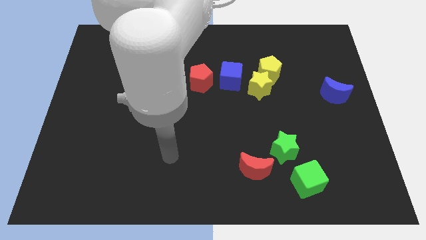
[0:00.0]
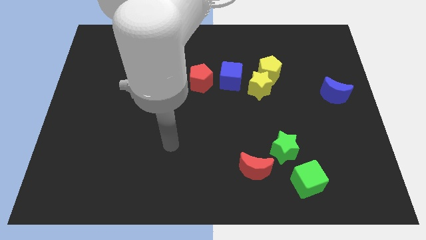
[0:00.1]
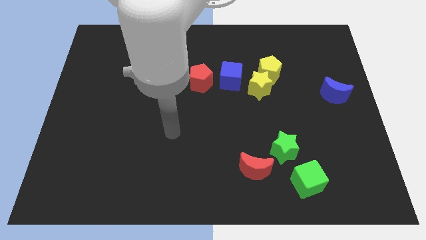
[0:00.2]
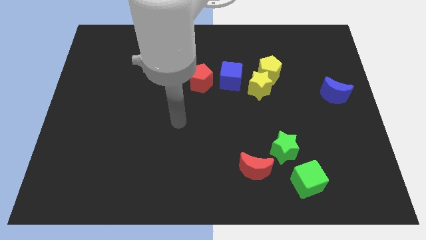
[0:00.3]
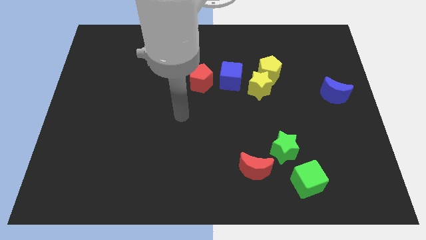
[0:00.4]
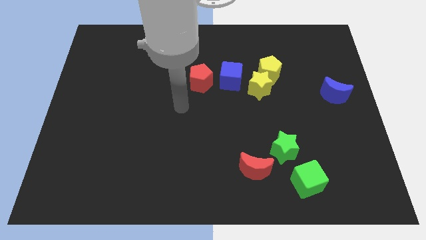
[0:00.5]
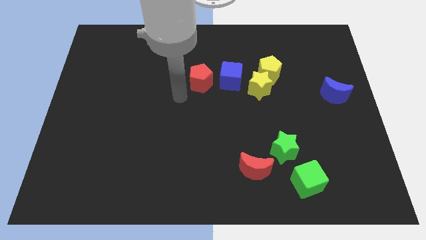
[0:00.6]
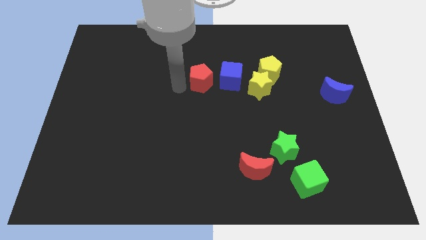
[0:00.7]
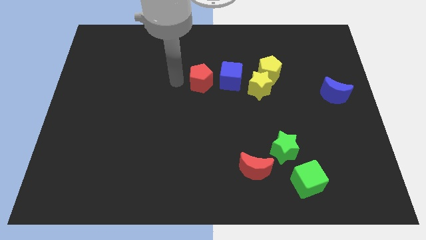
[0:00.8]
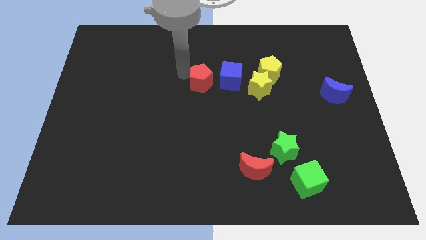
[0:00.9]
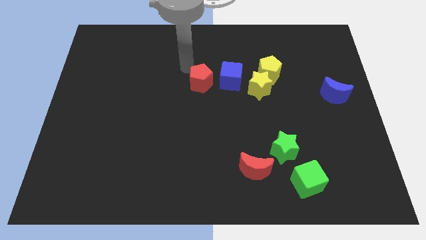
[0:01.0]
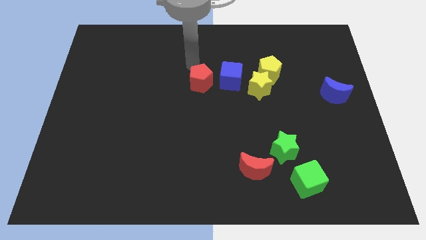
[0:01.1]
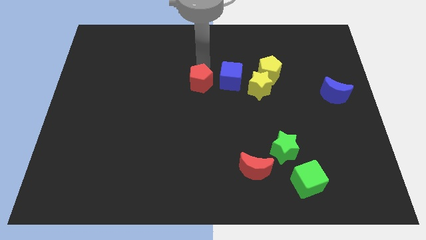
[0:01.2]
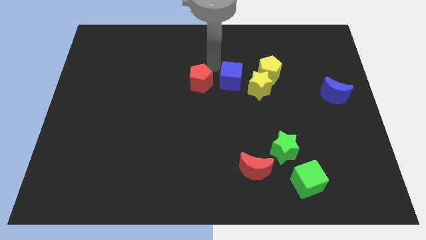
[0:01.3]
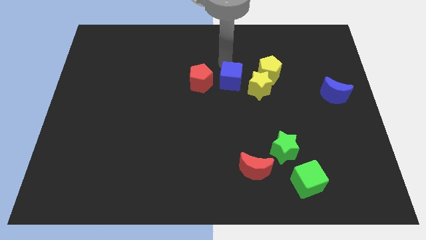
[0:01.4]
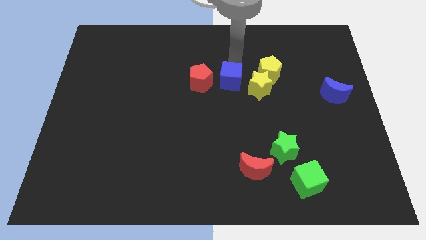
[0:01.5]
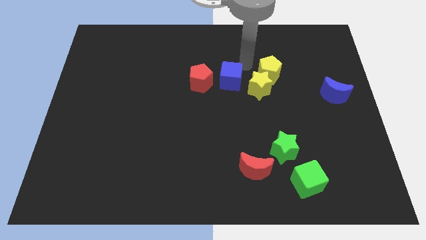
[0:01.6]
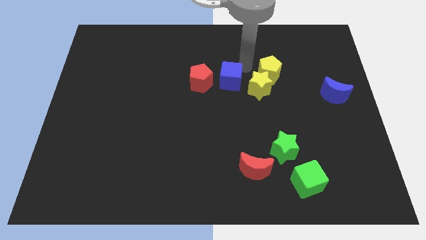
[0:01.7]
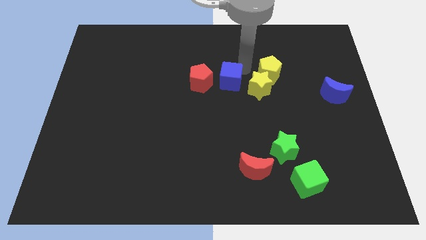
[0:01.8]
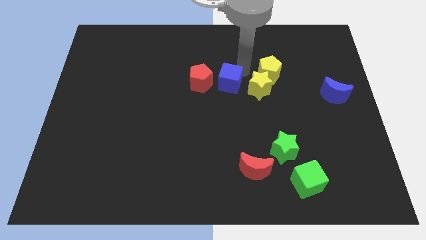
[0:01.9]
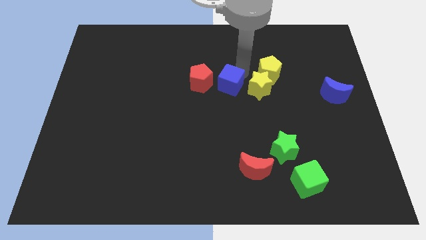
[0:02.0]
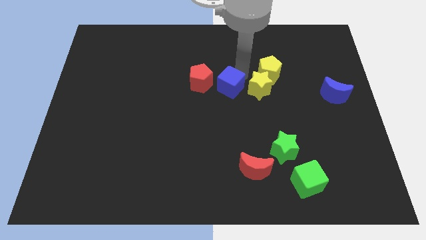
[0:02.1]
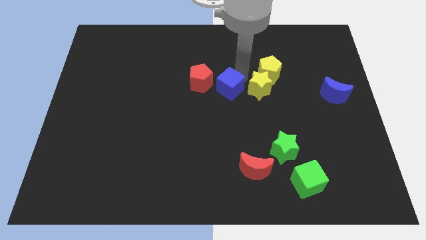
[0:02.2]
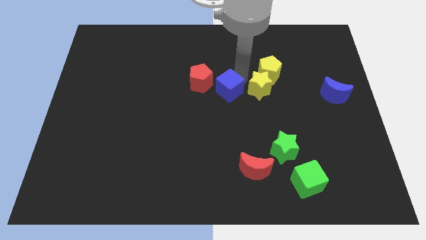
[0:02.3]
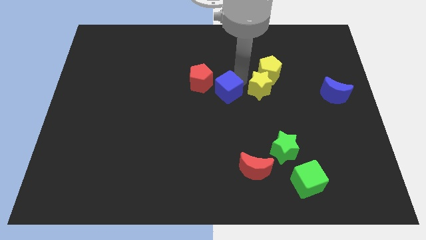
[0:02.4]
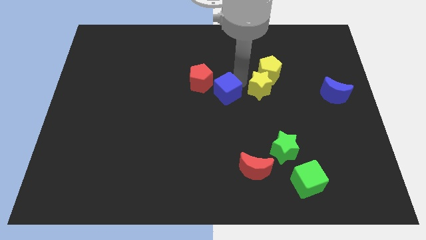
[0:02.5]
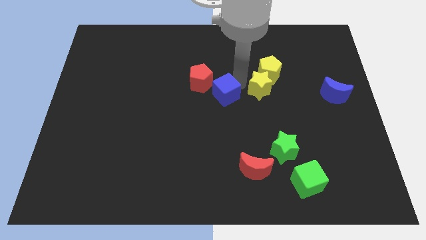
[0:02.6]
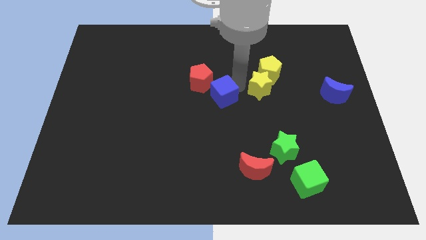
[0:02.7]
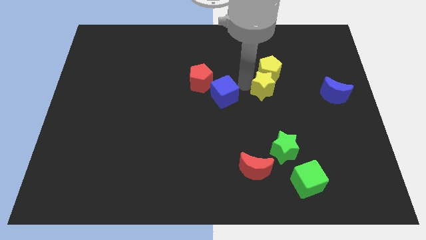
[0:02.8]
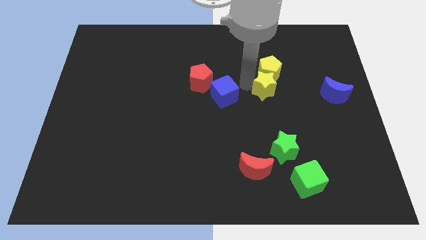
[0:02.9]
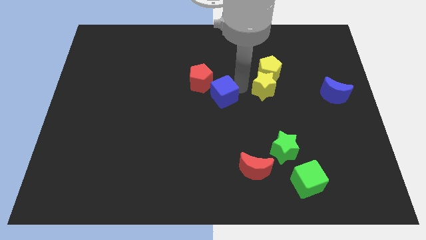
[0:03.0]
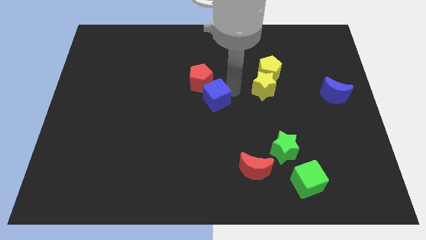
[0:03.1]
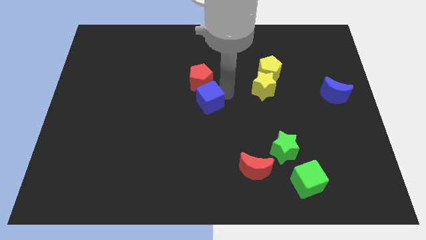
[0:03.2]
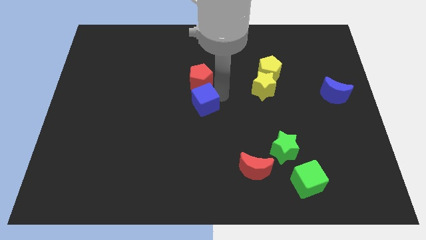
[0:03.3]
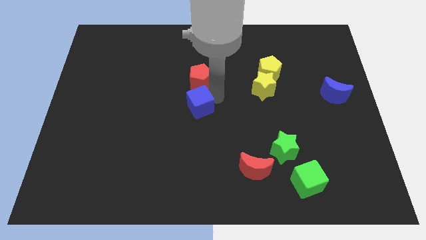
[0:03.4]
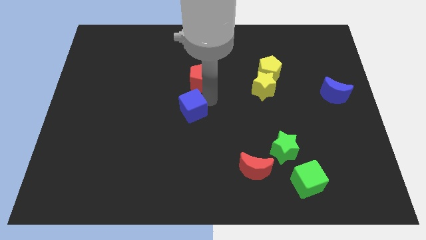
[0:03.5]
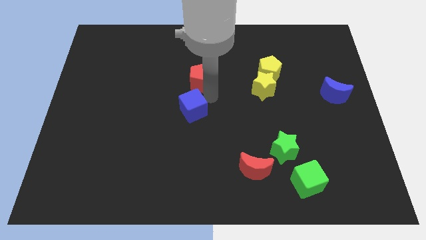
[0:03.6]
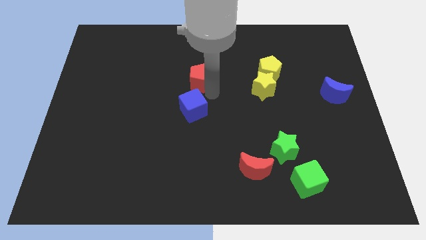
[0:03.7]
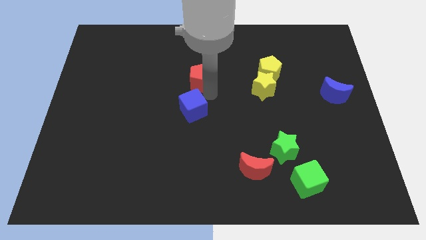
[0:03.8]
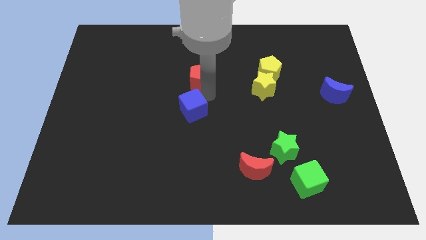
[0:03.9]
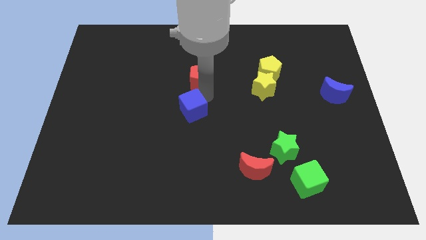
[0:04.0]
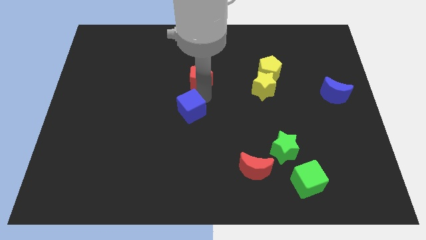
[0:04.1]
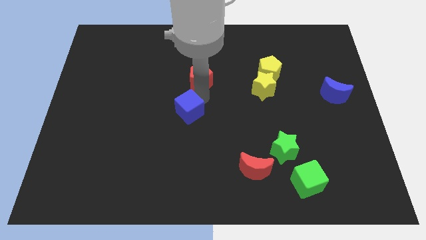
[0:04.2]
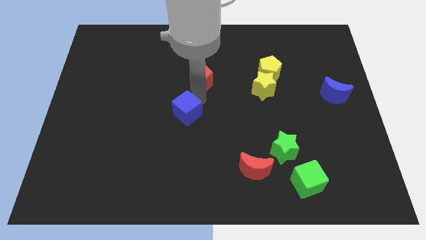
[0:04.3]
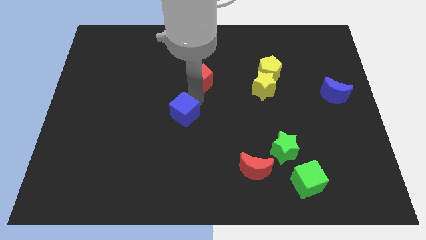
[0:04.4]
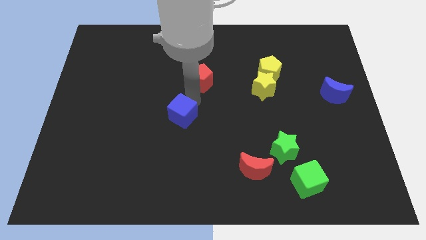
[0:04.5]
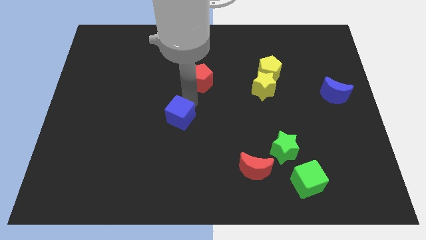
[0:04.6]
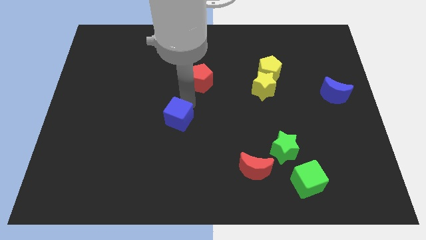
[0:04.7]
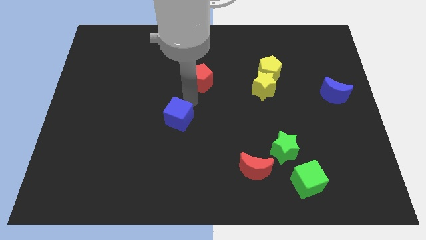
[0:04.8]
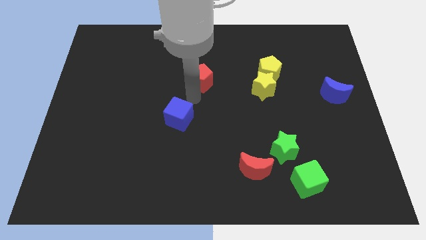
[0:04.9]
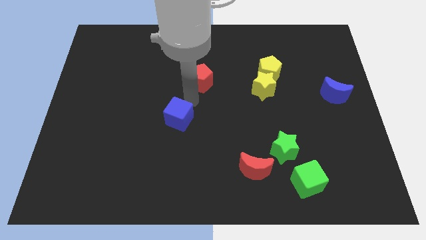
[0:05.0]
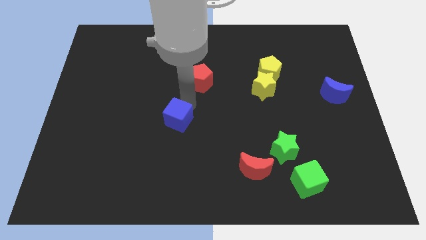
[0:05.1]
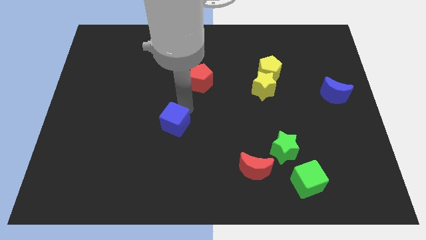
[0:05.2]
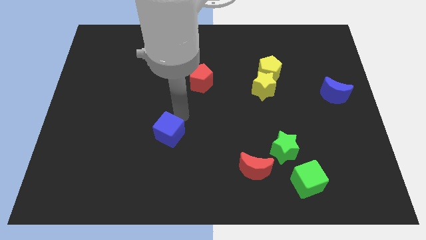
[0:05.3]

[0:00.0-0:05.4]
push the blue cube downwards and left diagonally

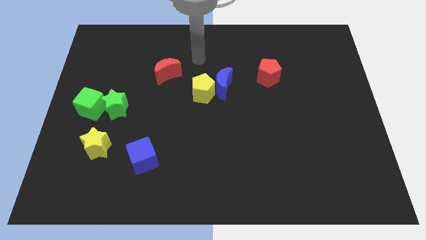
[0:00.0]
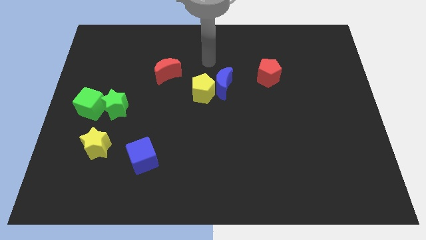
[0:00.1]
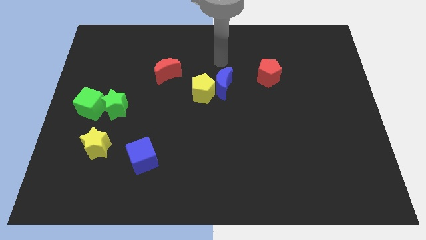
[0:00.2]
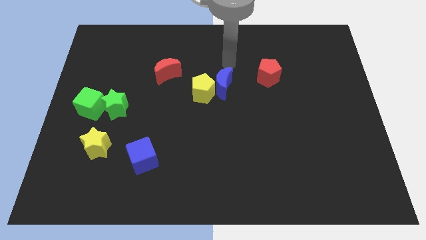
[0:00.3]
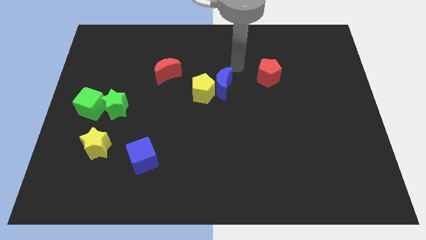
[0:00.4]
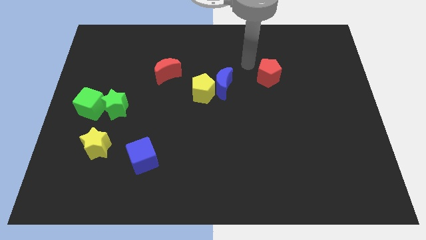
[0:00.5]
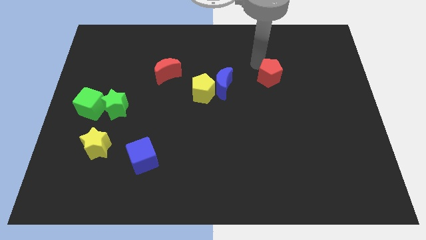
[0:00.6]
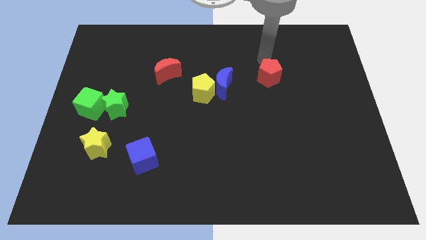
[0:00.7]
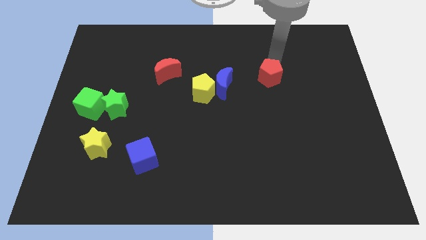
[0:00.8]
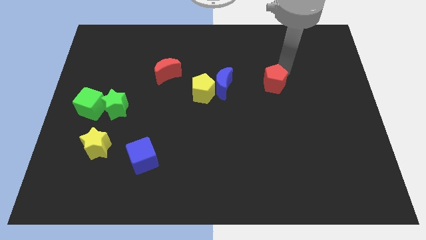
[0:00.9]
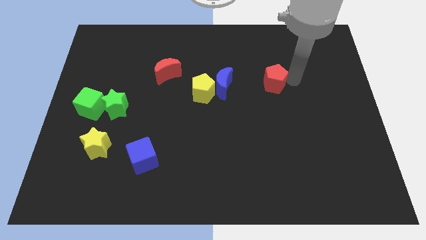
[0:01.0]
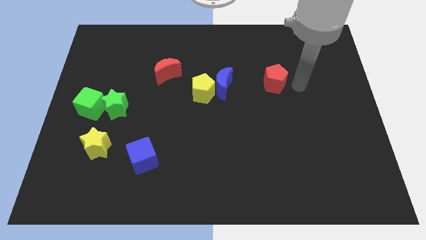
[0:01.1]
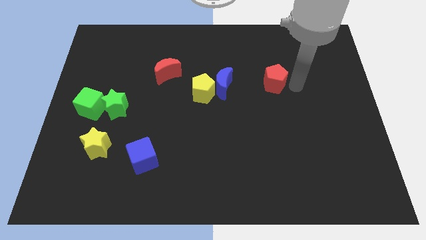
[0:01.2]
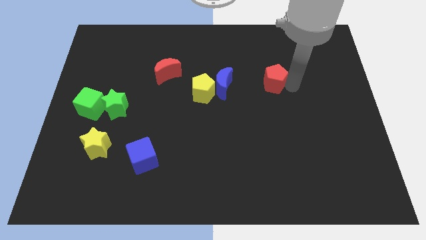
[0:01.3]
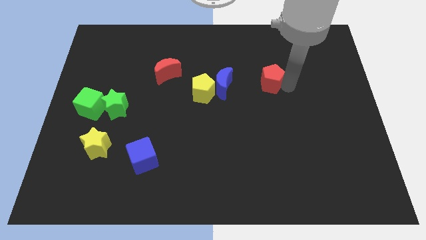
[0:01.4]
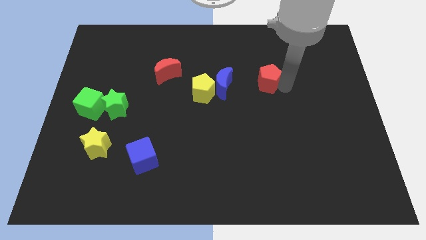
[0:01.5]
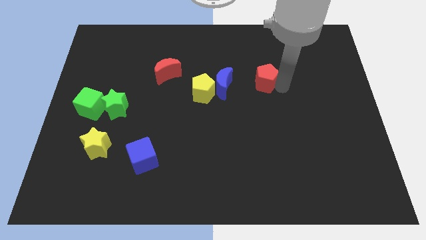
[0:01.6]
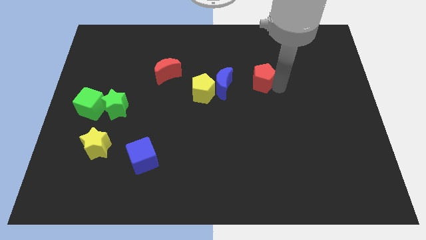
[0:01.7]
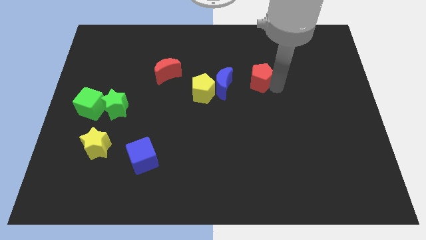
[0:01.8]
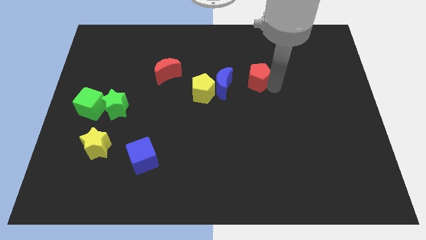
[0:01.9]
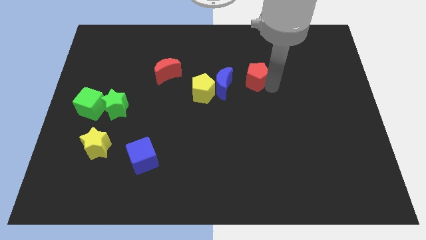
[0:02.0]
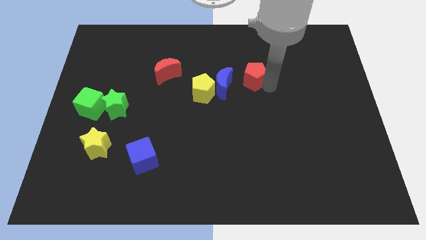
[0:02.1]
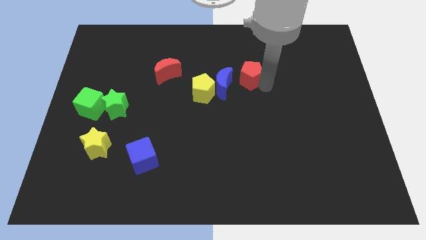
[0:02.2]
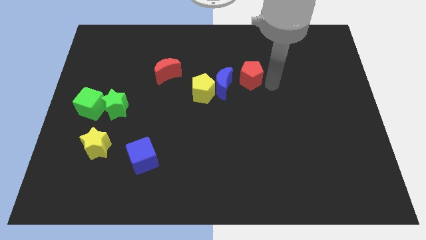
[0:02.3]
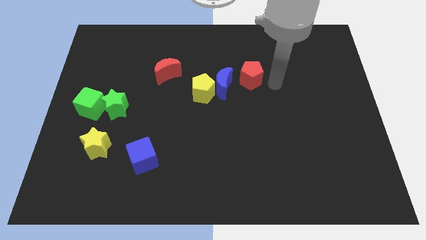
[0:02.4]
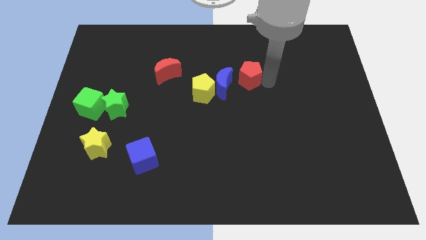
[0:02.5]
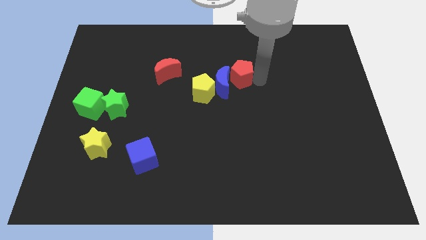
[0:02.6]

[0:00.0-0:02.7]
slightly move the red pentagon to the left

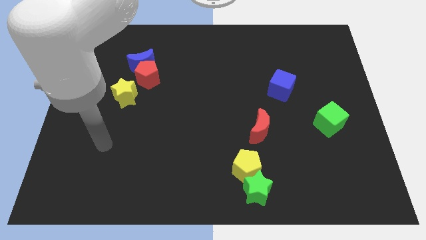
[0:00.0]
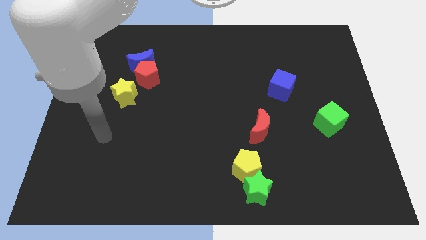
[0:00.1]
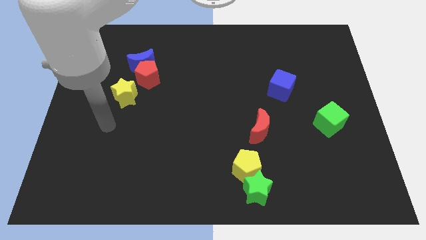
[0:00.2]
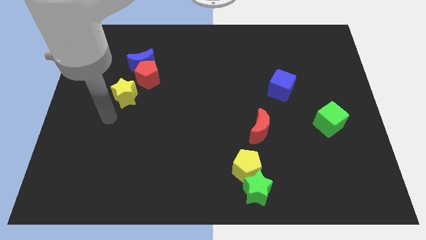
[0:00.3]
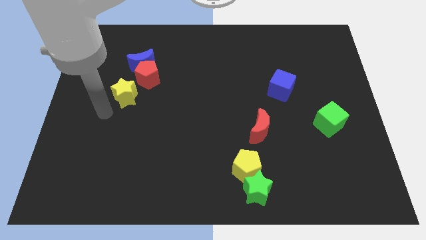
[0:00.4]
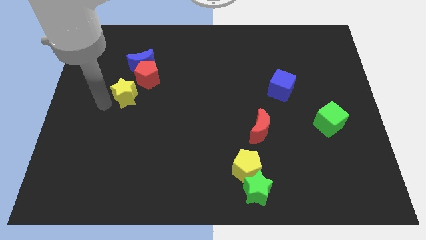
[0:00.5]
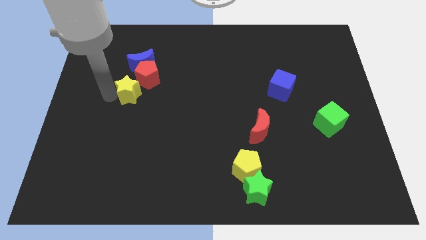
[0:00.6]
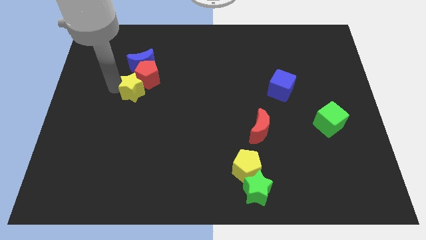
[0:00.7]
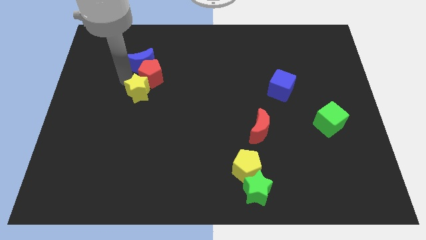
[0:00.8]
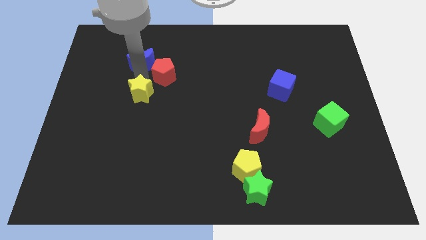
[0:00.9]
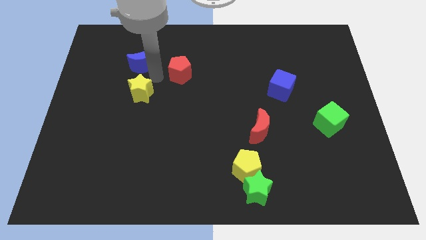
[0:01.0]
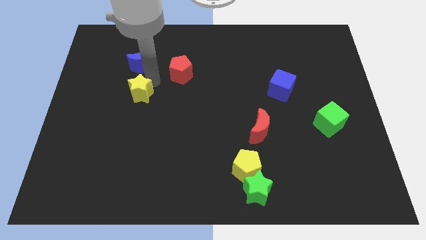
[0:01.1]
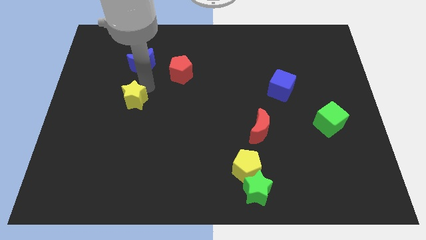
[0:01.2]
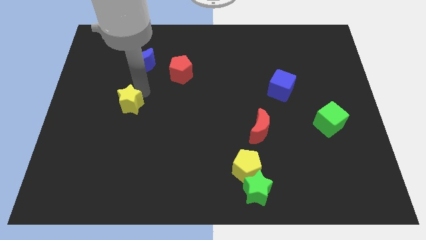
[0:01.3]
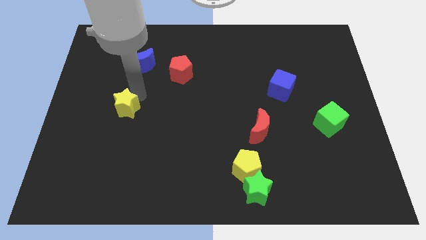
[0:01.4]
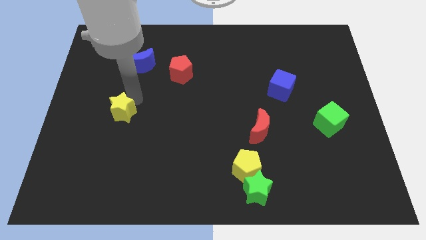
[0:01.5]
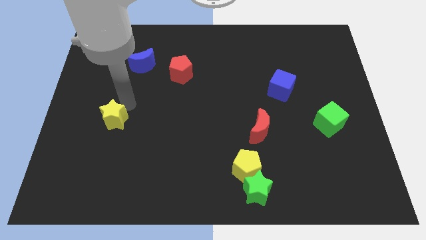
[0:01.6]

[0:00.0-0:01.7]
slightly move the yellow star downwards
